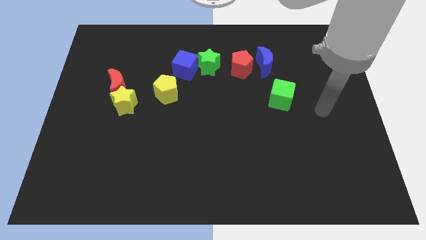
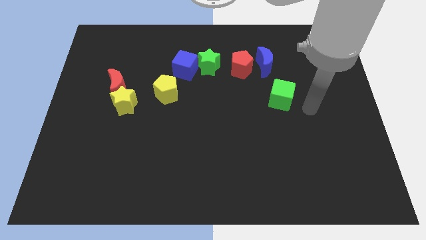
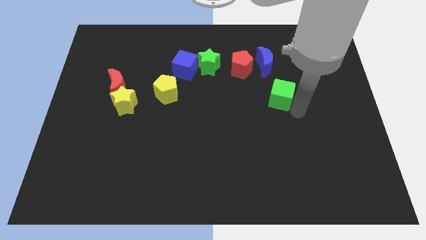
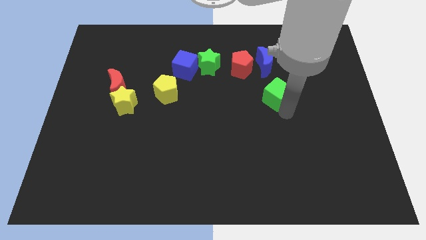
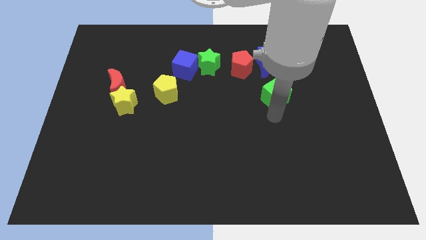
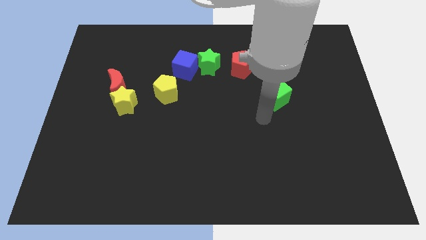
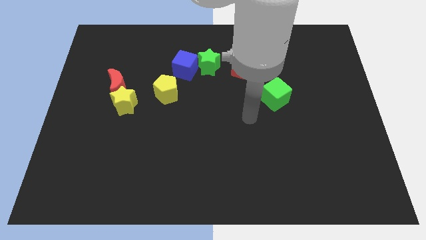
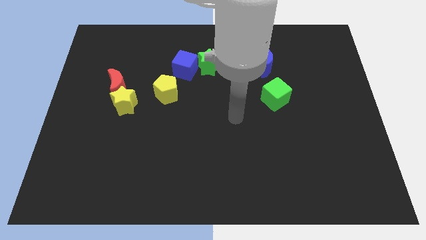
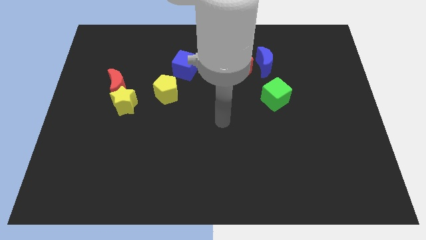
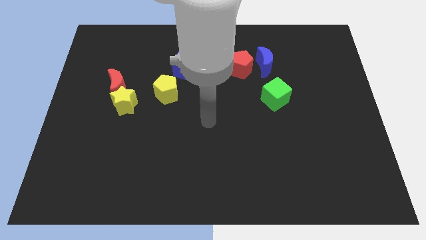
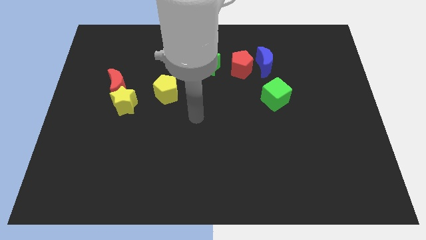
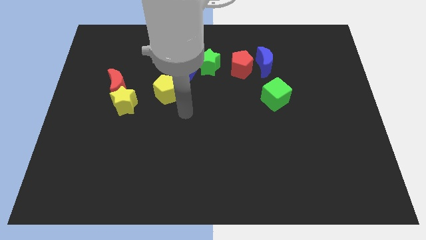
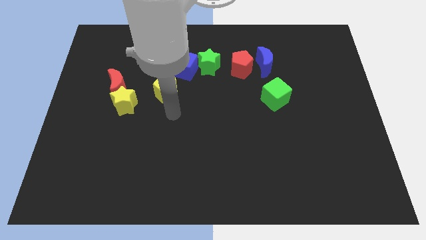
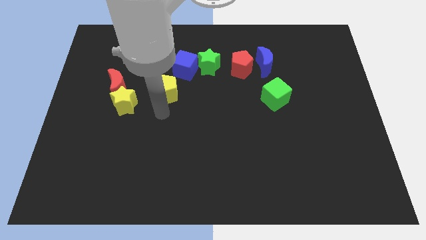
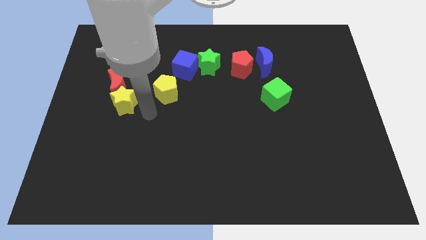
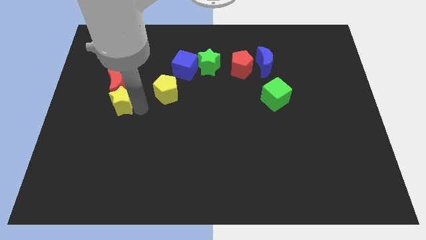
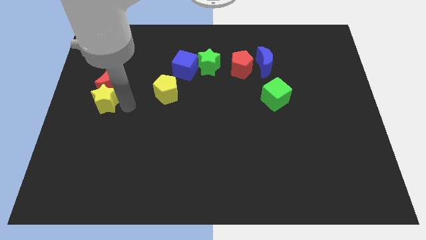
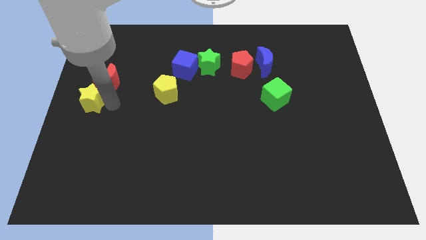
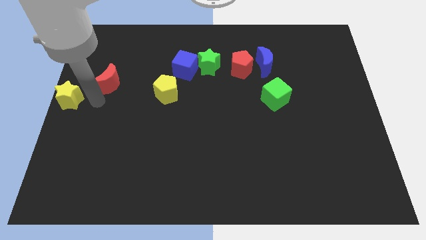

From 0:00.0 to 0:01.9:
pull the red moon apart from the yellow star

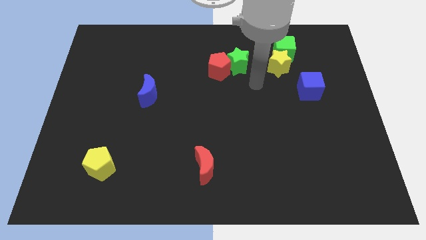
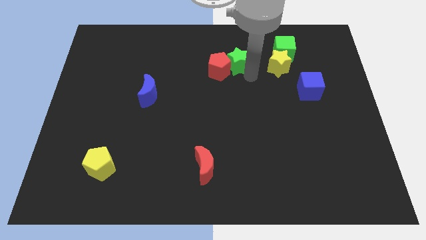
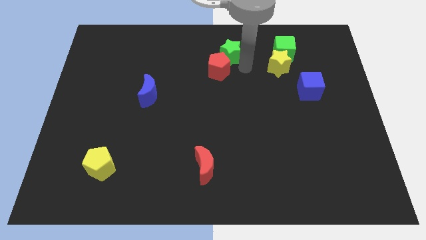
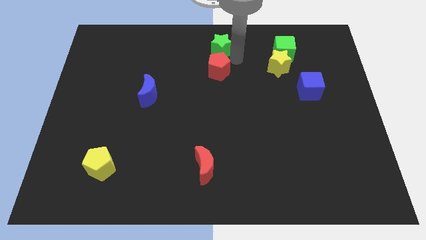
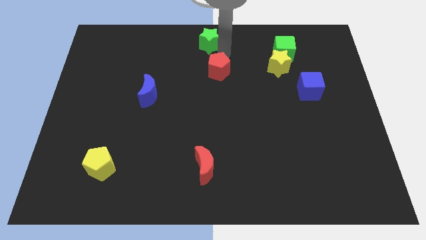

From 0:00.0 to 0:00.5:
move the red pentagon away from the green star

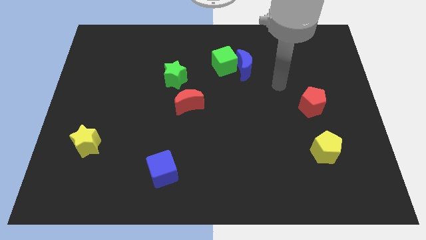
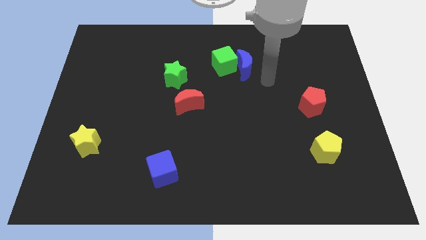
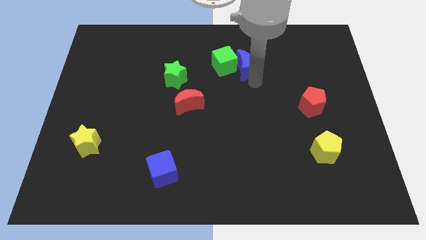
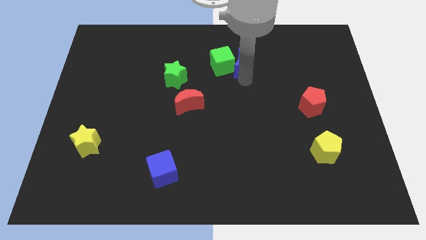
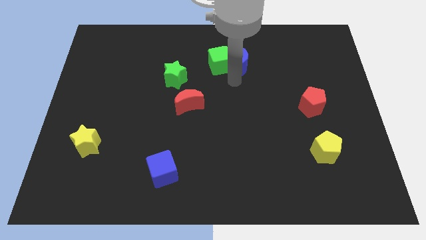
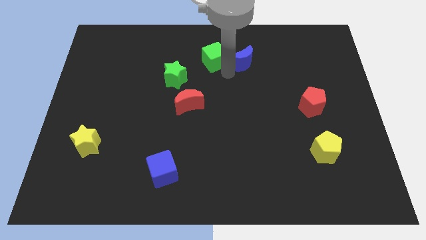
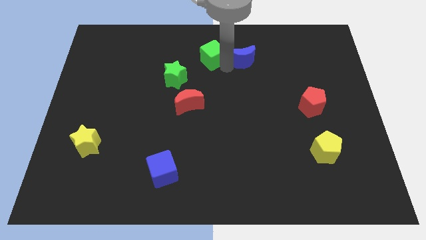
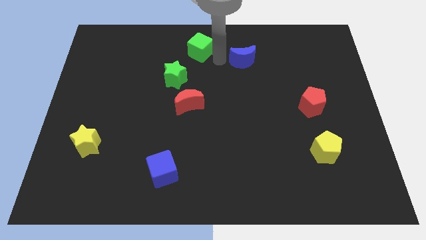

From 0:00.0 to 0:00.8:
move the blue moon away from the green cube

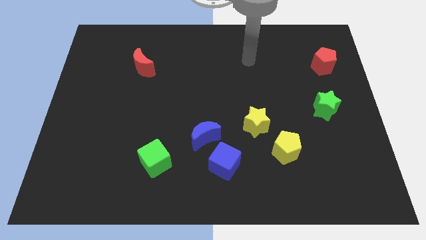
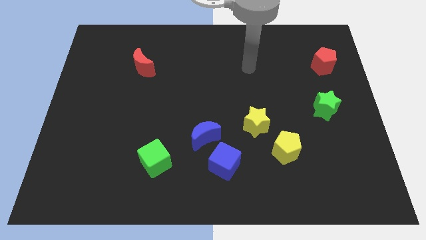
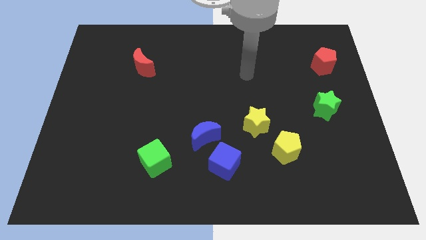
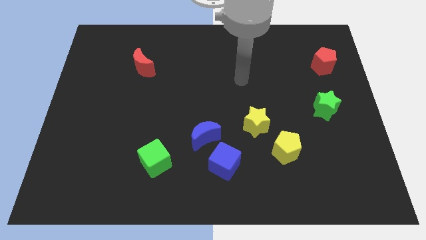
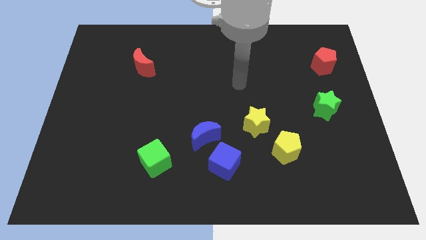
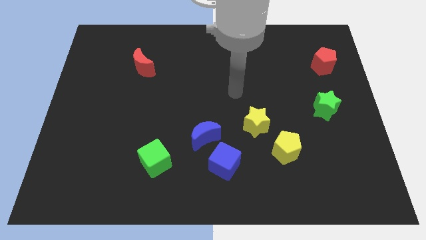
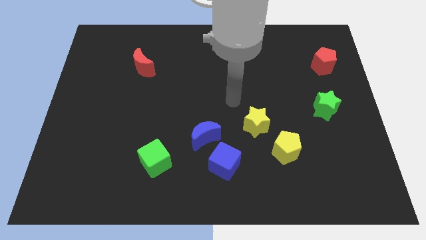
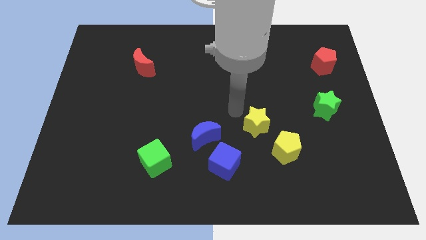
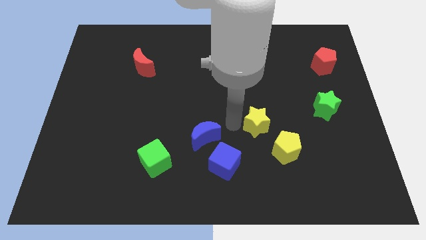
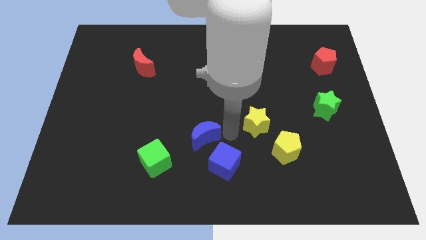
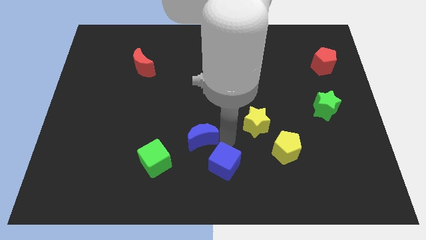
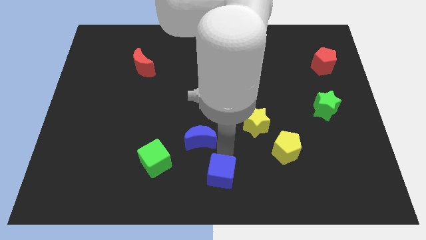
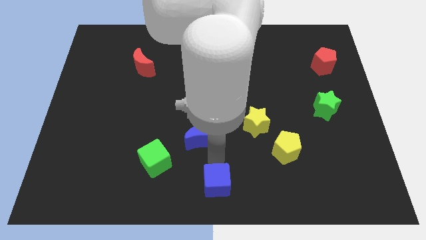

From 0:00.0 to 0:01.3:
separate the blue moon from the blue cube

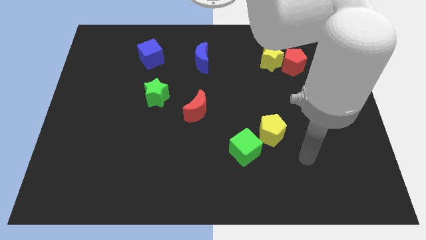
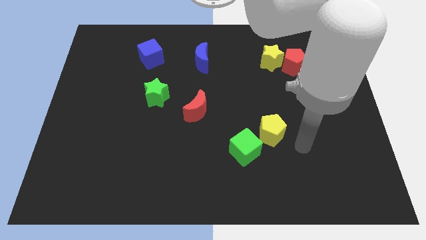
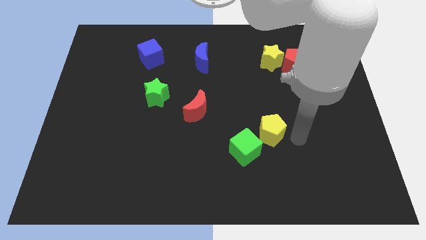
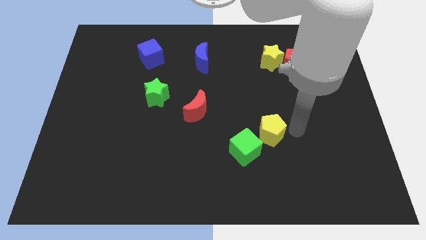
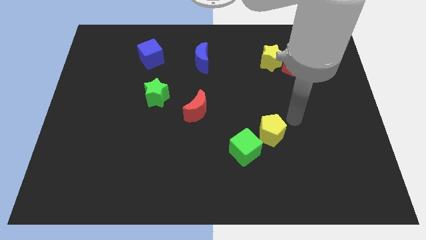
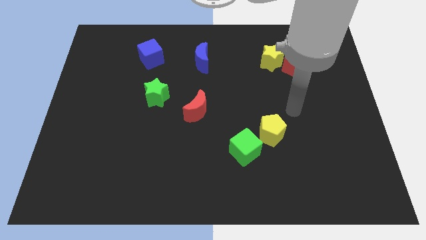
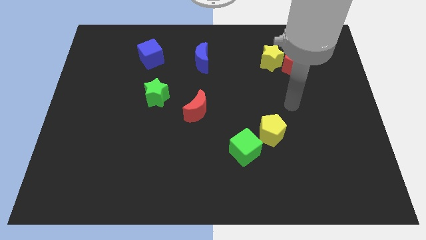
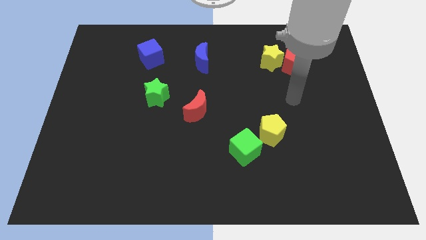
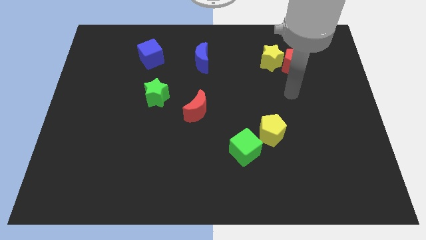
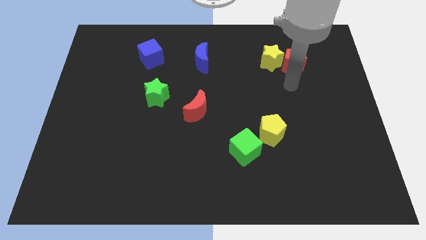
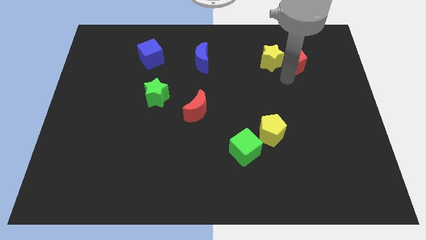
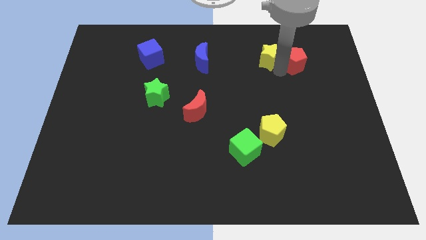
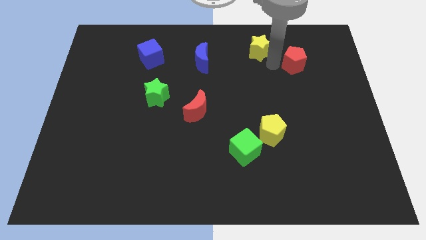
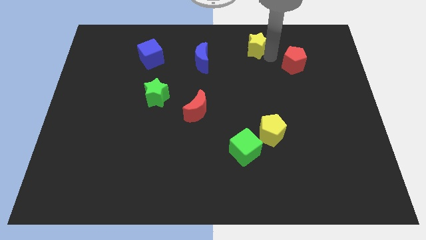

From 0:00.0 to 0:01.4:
separate the red pentagon from the yellow star

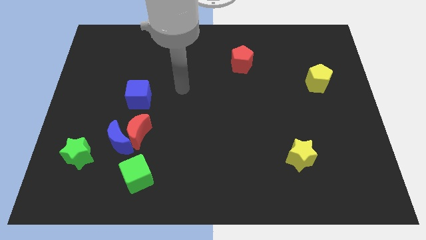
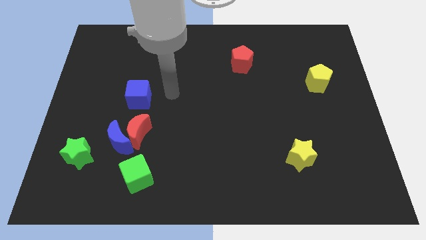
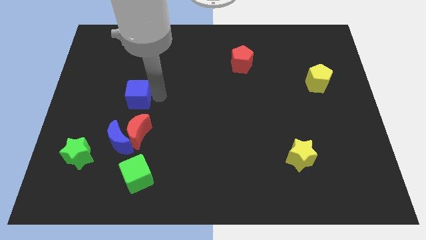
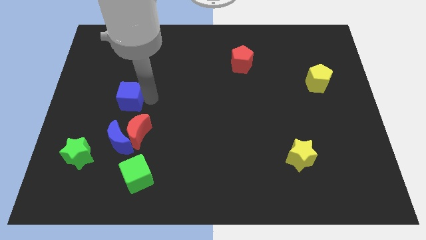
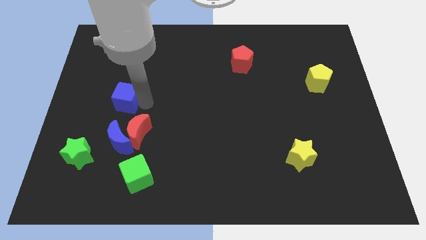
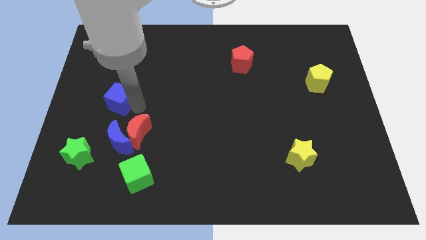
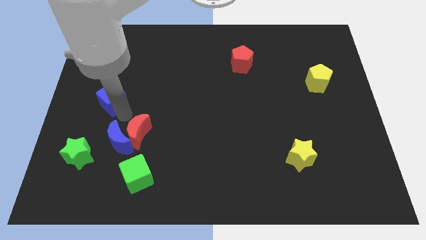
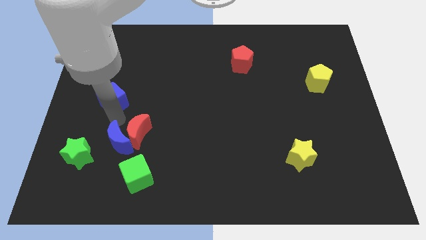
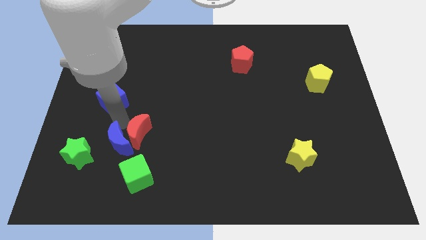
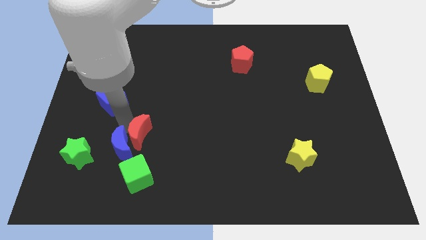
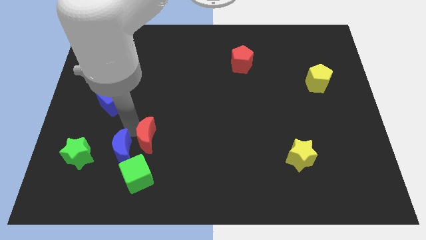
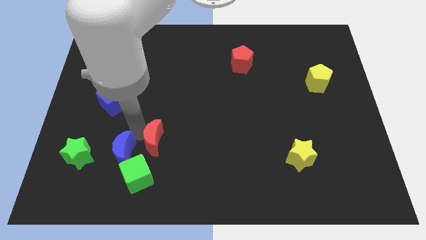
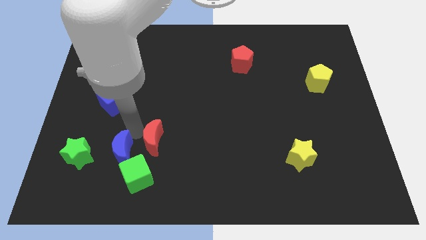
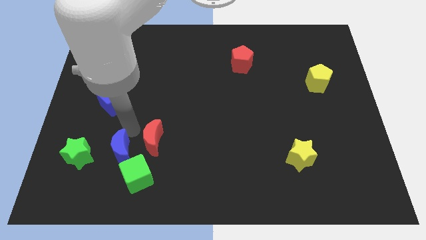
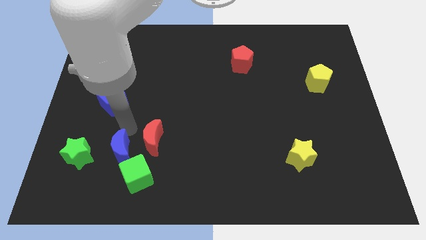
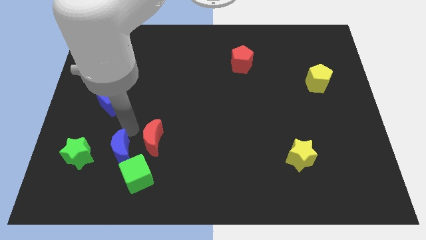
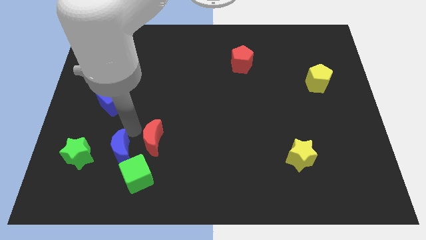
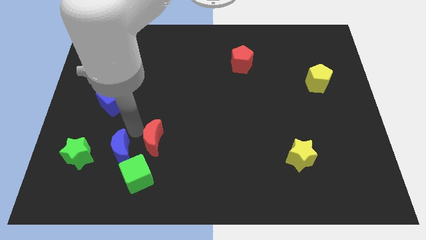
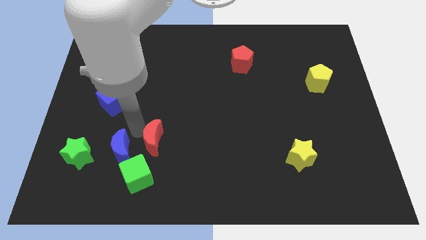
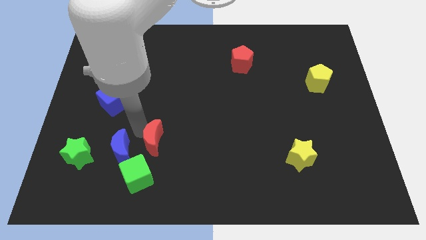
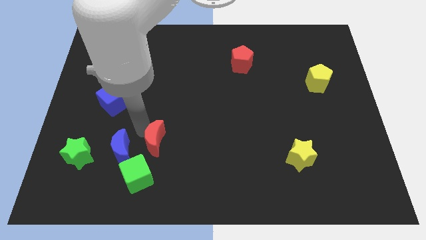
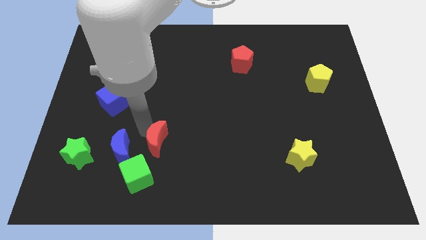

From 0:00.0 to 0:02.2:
pull the red moon apart from the blue moon and blue cube

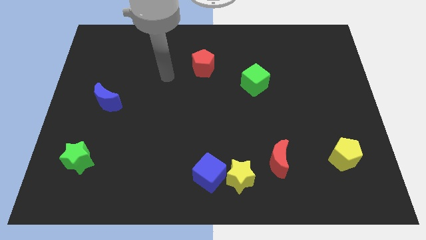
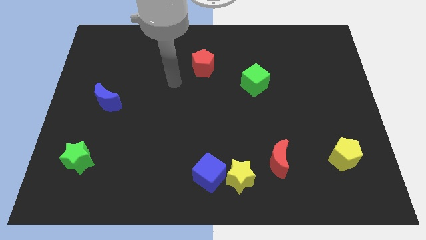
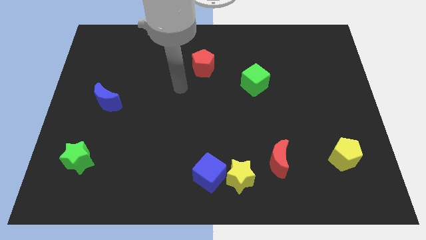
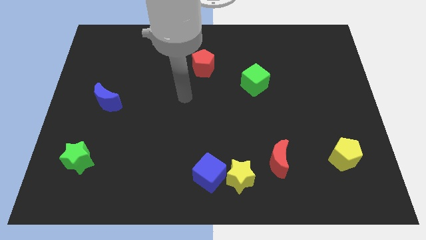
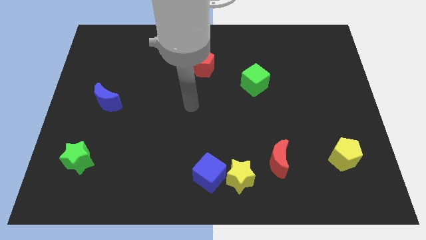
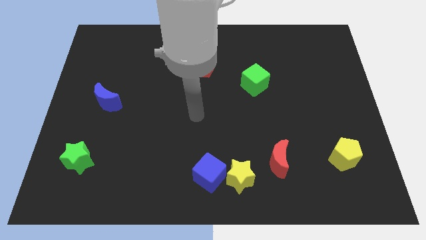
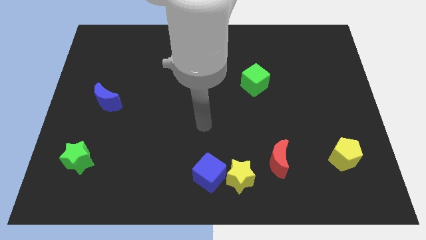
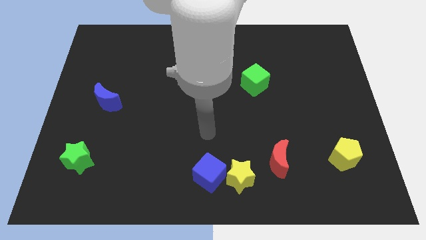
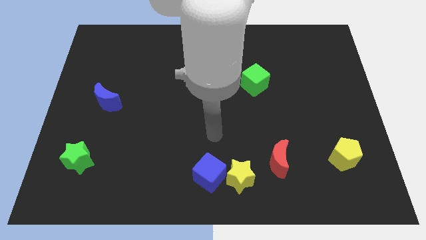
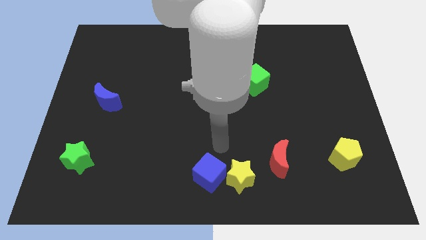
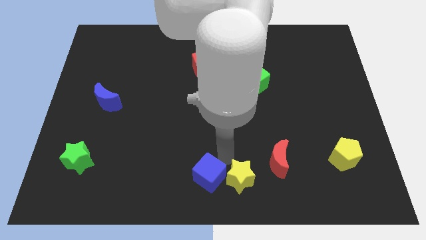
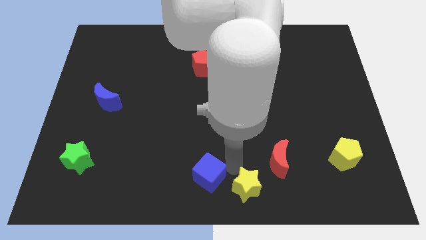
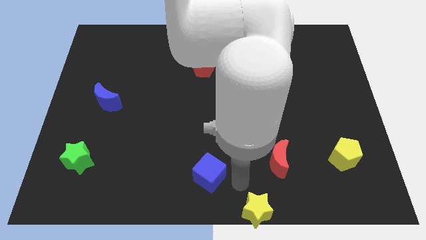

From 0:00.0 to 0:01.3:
move the blue cube away from the yellow star
